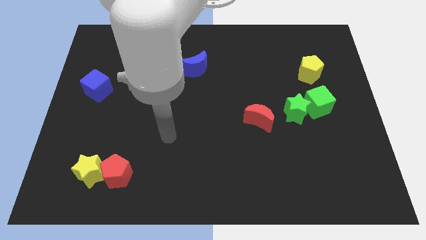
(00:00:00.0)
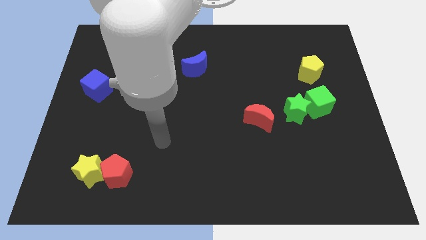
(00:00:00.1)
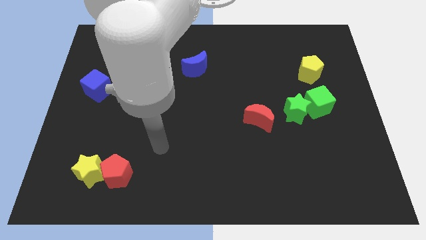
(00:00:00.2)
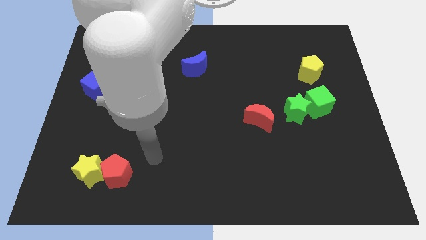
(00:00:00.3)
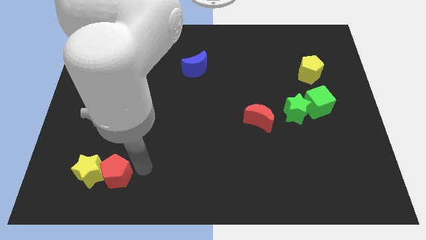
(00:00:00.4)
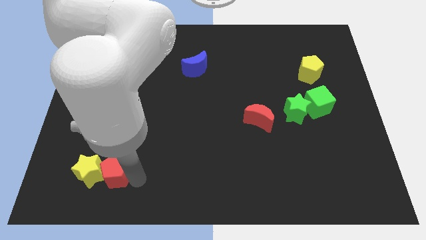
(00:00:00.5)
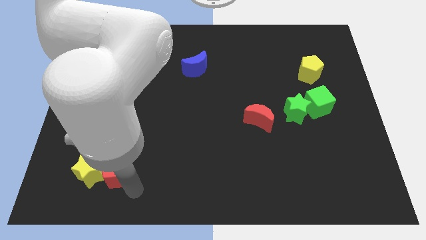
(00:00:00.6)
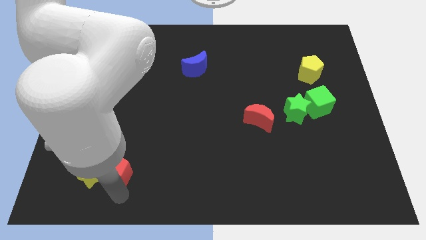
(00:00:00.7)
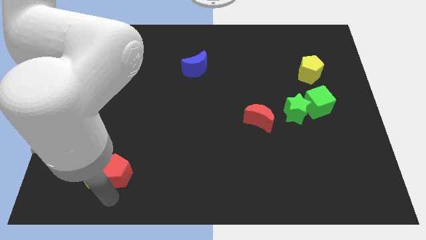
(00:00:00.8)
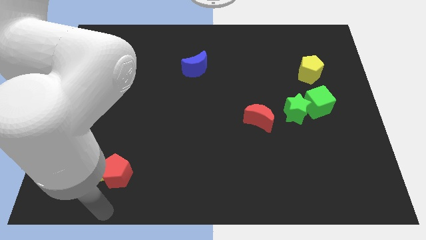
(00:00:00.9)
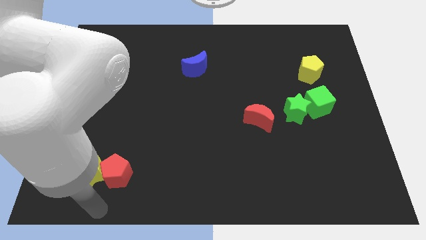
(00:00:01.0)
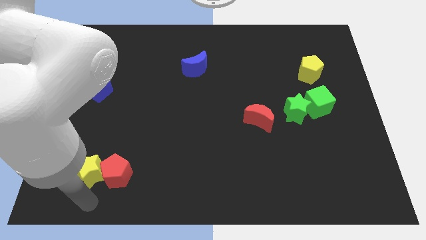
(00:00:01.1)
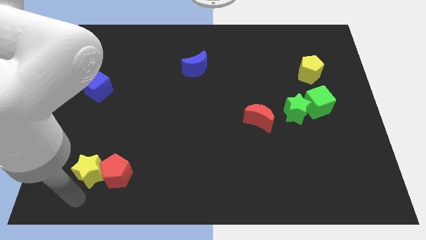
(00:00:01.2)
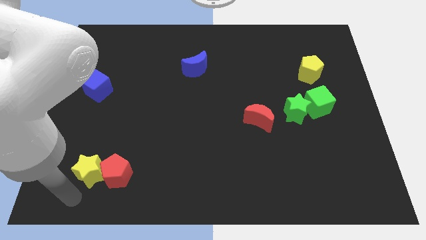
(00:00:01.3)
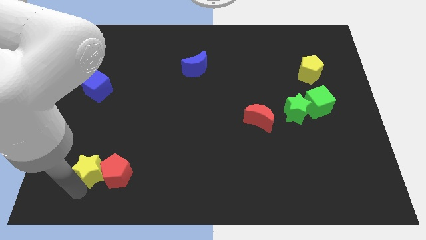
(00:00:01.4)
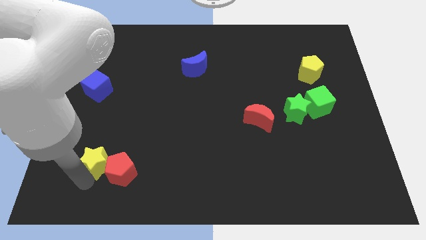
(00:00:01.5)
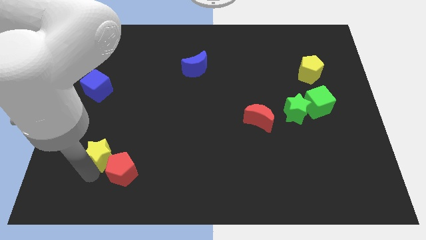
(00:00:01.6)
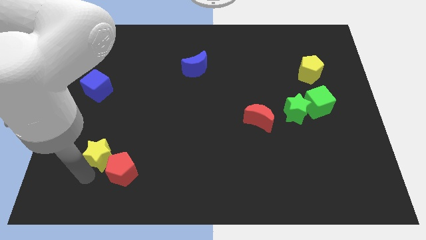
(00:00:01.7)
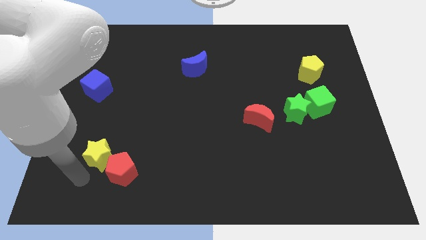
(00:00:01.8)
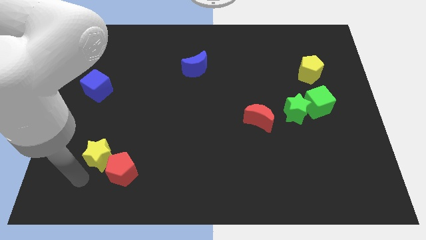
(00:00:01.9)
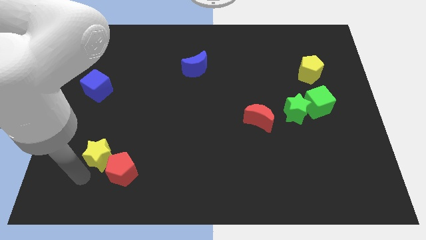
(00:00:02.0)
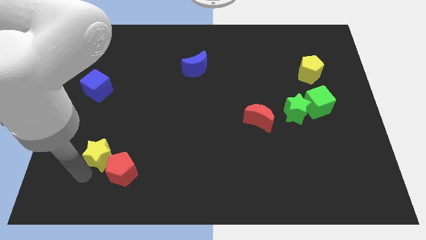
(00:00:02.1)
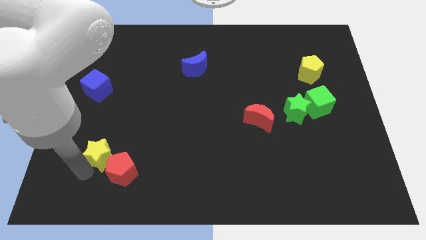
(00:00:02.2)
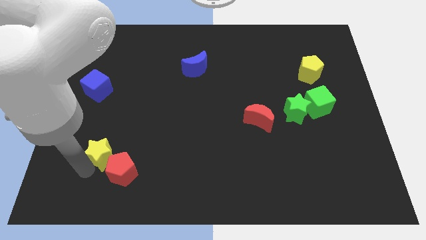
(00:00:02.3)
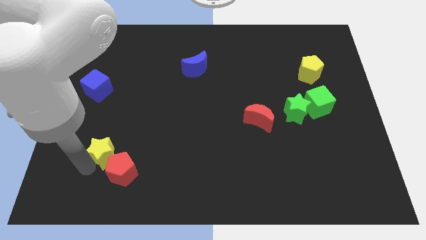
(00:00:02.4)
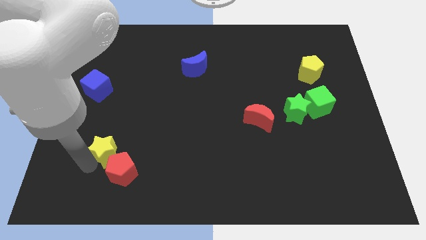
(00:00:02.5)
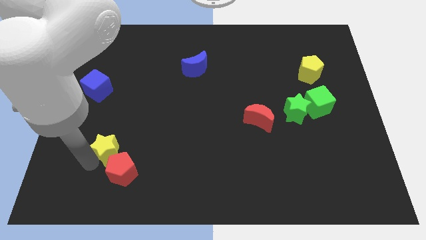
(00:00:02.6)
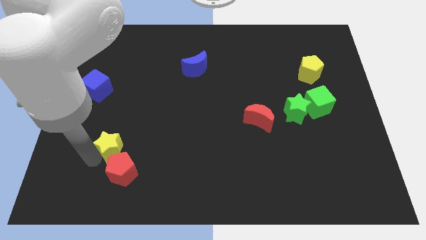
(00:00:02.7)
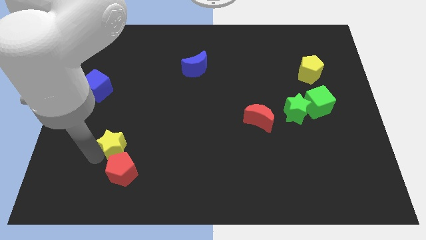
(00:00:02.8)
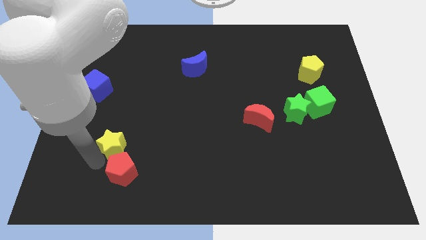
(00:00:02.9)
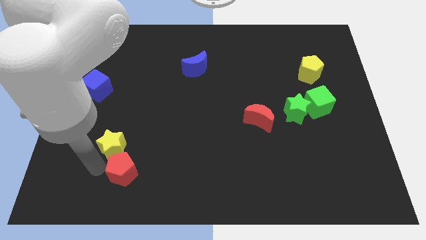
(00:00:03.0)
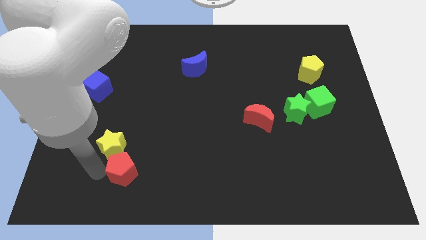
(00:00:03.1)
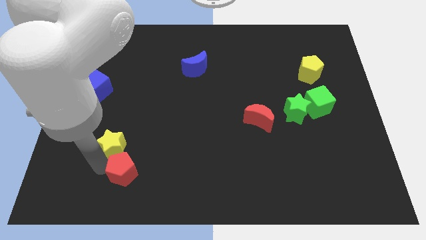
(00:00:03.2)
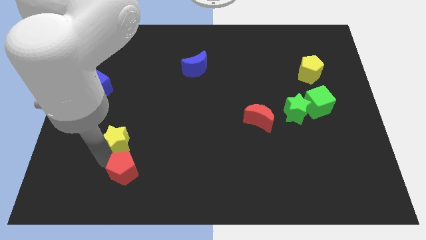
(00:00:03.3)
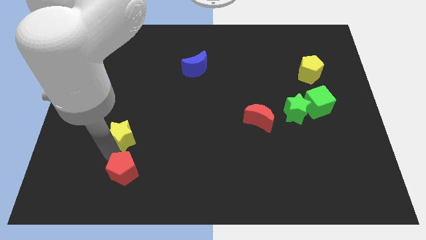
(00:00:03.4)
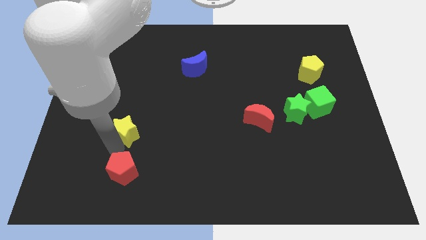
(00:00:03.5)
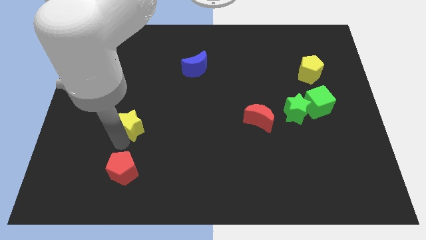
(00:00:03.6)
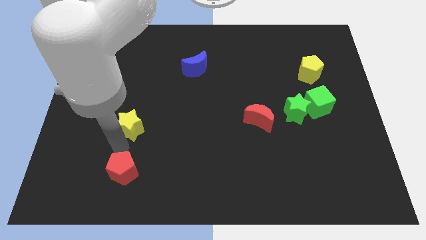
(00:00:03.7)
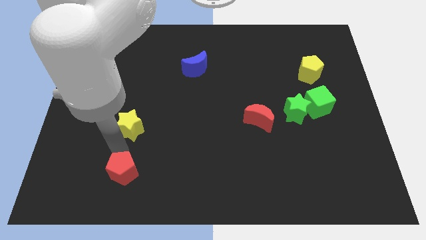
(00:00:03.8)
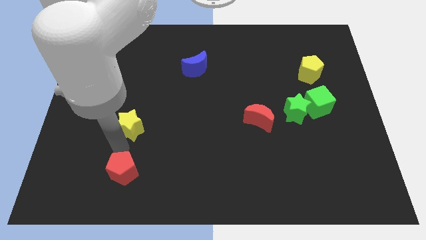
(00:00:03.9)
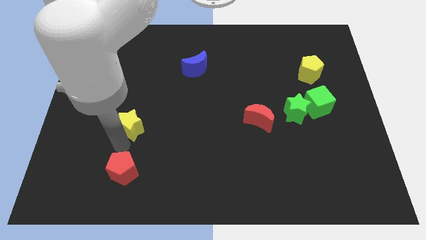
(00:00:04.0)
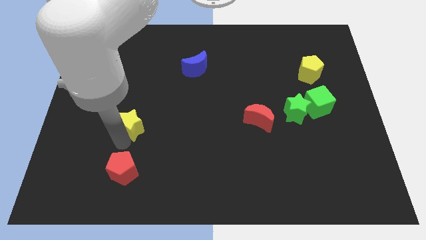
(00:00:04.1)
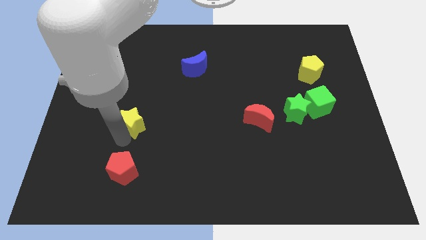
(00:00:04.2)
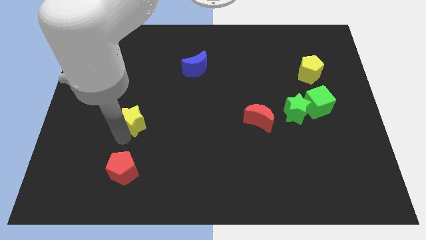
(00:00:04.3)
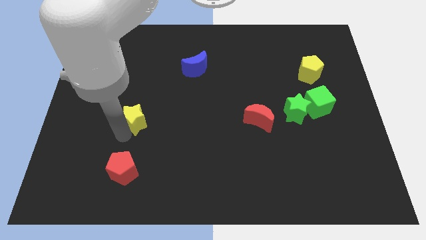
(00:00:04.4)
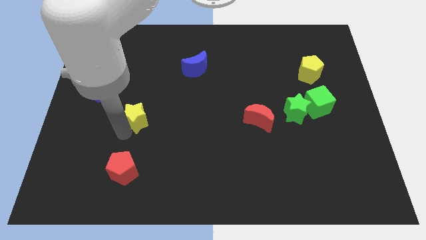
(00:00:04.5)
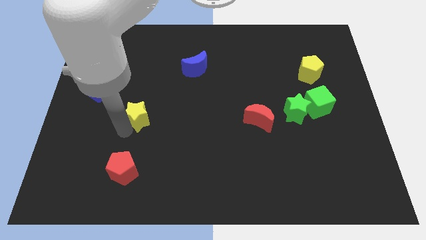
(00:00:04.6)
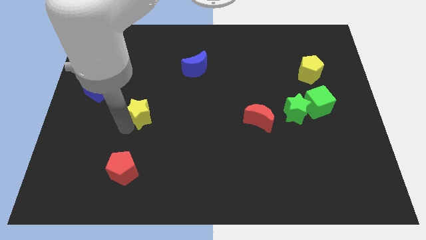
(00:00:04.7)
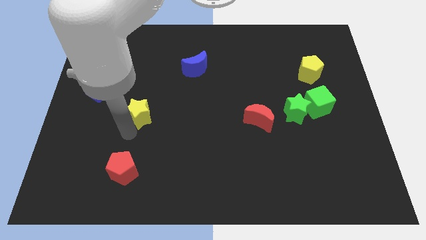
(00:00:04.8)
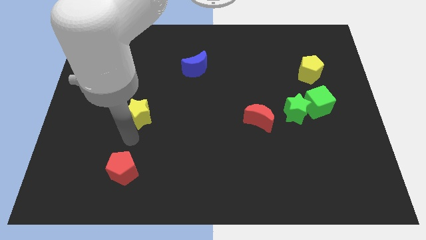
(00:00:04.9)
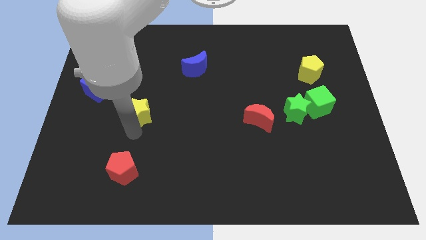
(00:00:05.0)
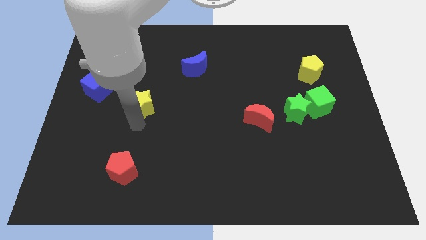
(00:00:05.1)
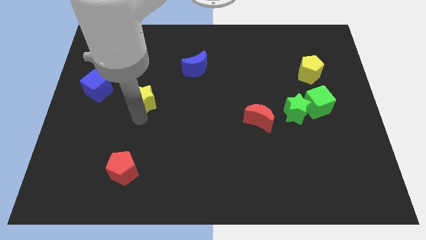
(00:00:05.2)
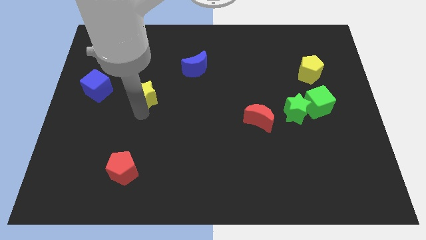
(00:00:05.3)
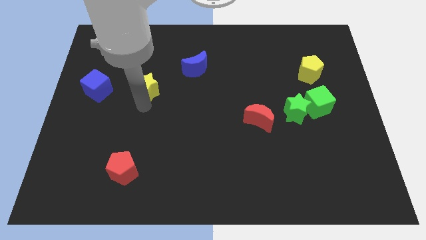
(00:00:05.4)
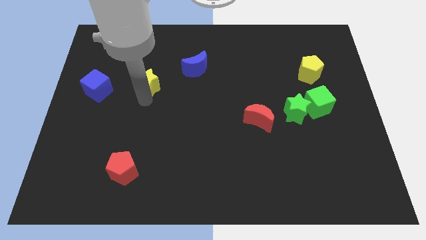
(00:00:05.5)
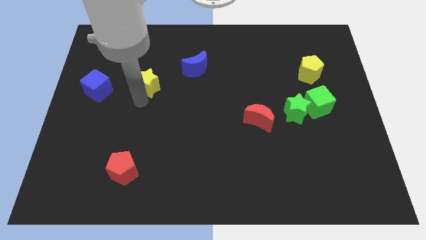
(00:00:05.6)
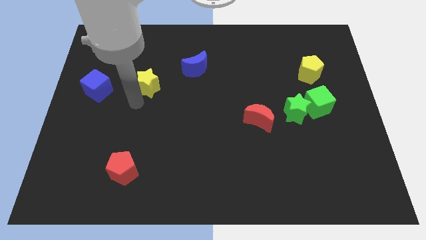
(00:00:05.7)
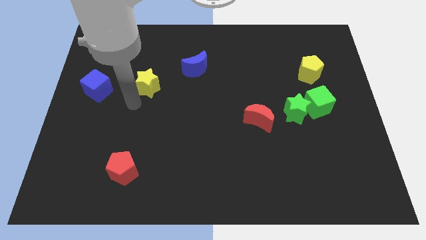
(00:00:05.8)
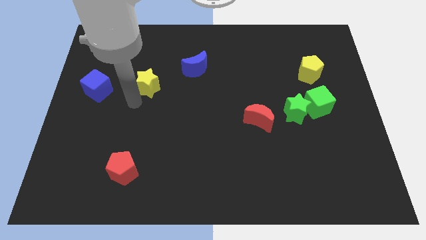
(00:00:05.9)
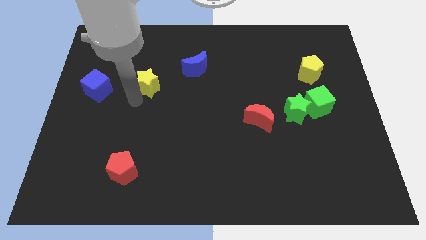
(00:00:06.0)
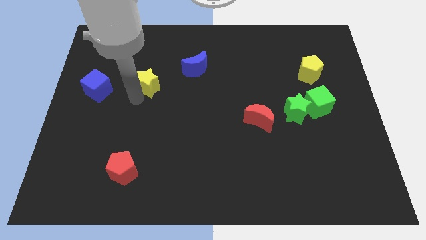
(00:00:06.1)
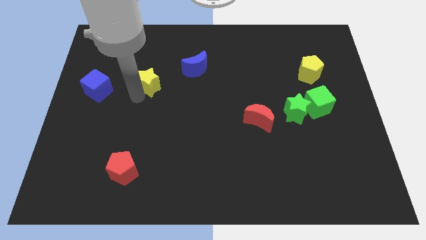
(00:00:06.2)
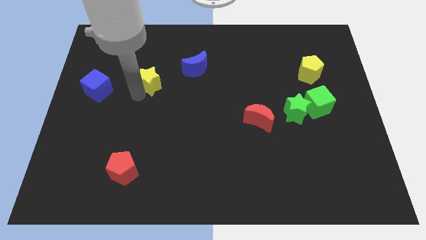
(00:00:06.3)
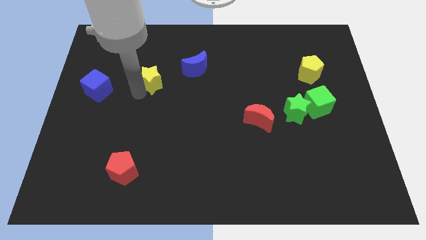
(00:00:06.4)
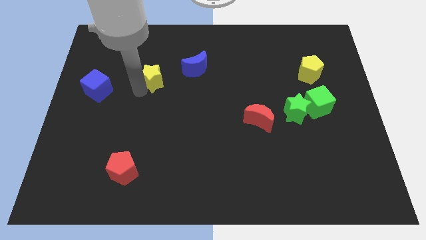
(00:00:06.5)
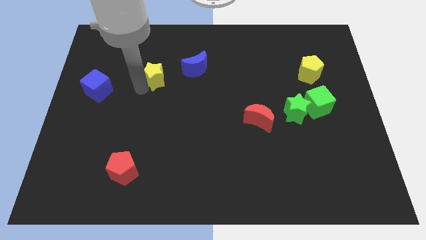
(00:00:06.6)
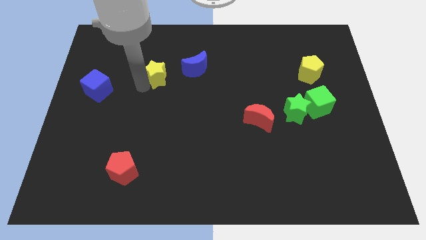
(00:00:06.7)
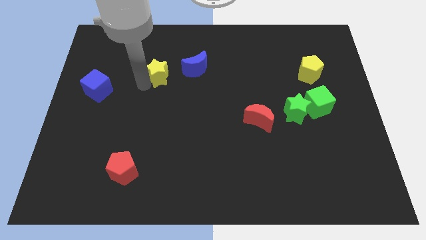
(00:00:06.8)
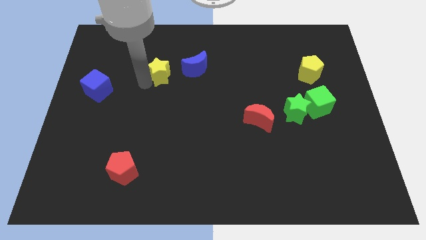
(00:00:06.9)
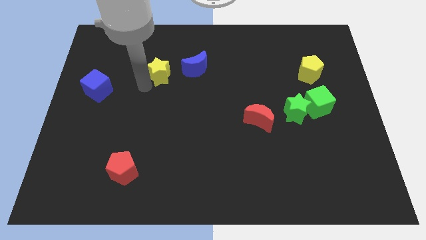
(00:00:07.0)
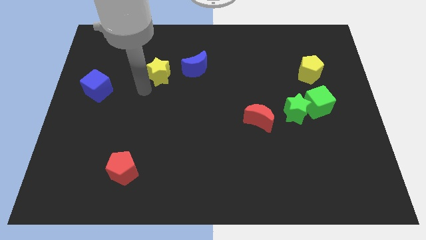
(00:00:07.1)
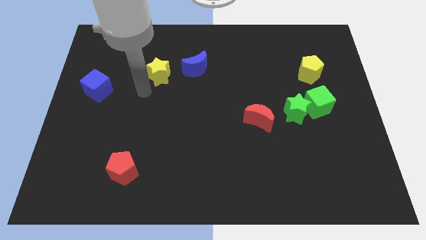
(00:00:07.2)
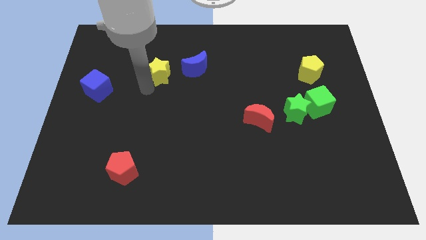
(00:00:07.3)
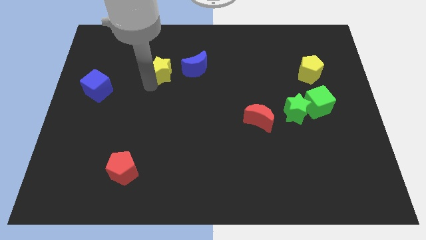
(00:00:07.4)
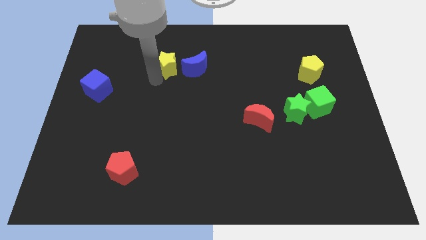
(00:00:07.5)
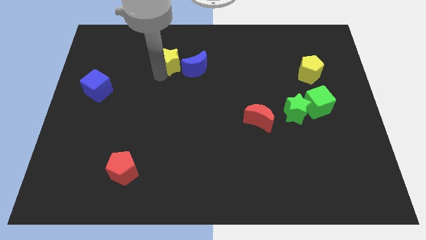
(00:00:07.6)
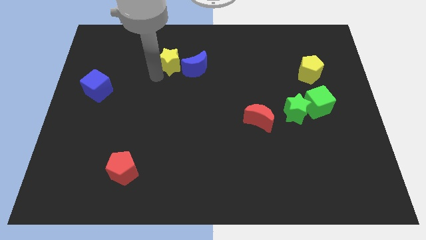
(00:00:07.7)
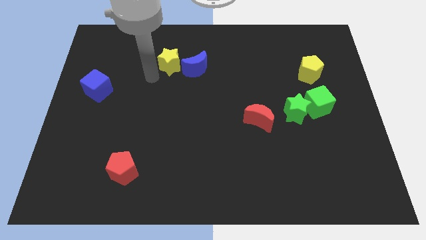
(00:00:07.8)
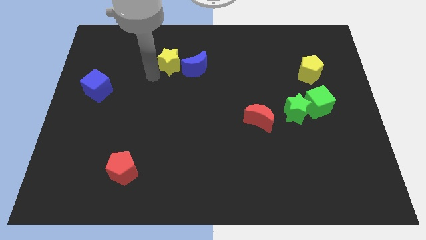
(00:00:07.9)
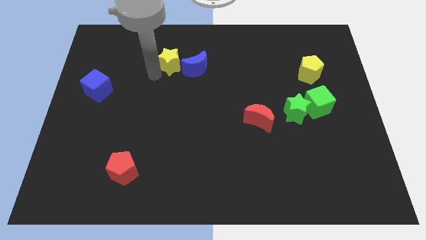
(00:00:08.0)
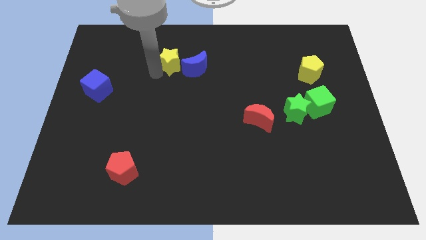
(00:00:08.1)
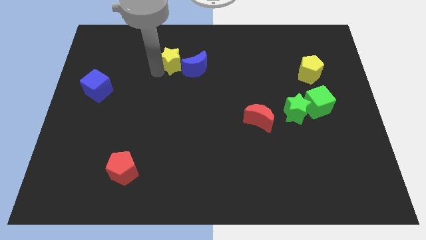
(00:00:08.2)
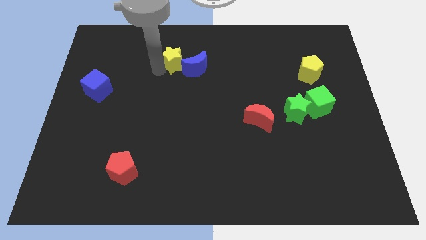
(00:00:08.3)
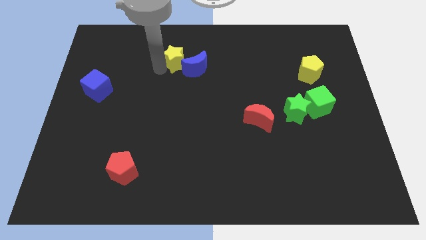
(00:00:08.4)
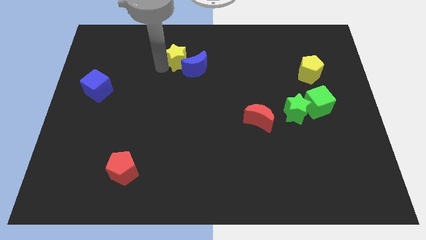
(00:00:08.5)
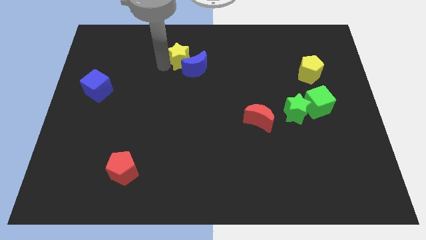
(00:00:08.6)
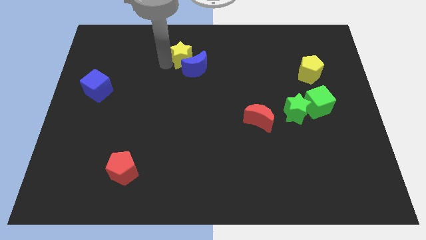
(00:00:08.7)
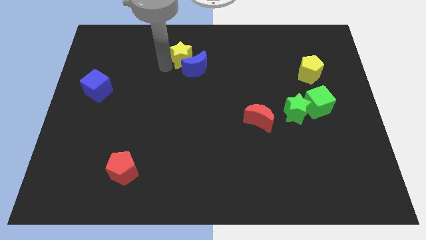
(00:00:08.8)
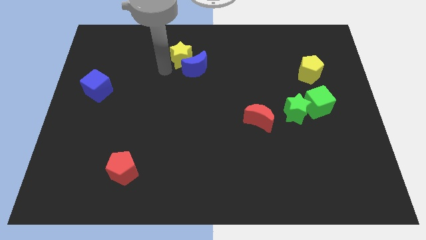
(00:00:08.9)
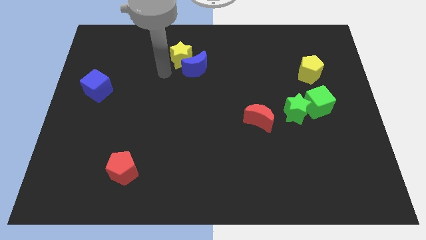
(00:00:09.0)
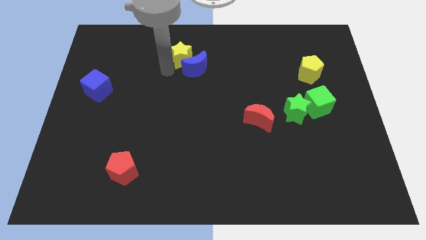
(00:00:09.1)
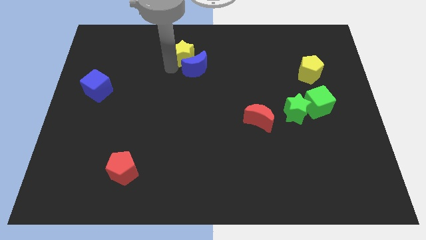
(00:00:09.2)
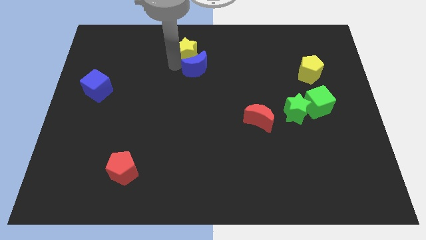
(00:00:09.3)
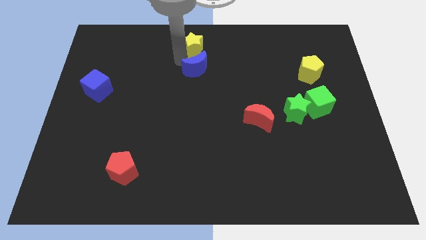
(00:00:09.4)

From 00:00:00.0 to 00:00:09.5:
move the yellow star to the top
